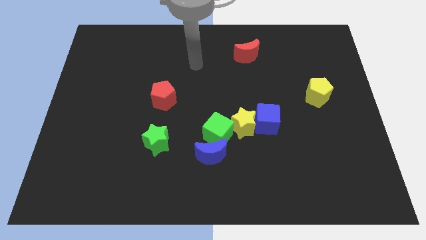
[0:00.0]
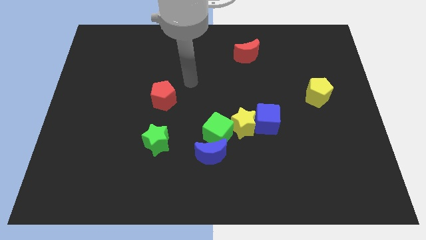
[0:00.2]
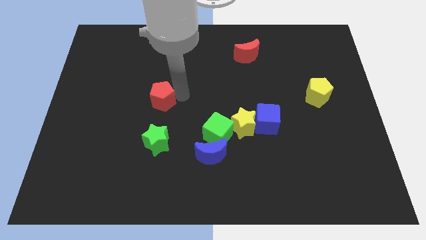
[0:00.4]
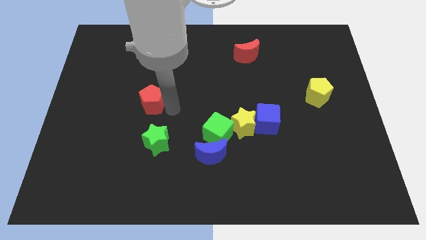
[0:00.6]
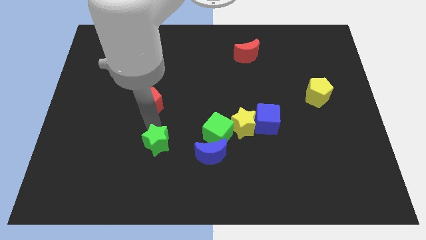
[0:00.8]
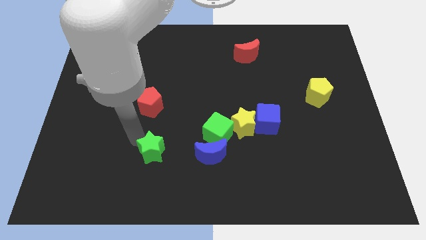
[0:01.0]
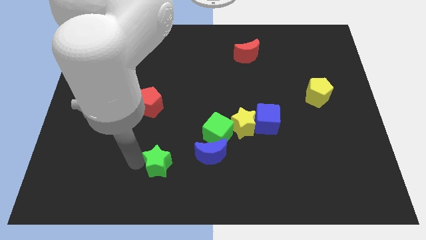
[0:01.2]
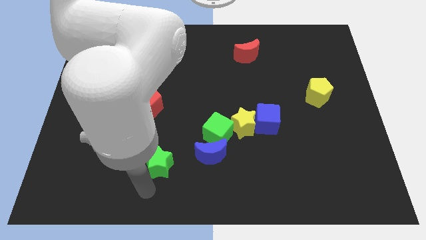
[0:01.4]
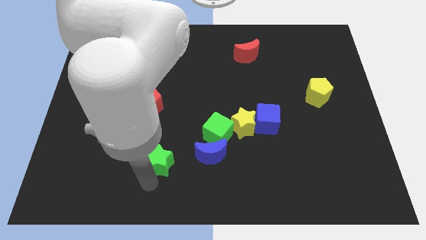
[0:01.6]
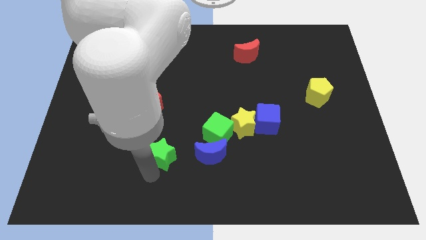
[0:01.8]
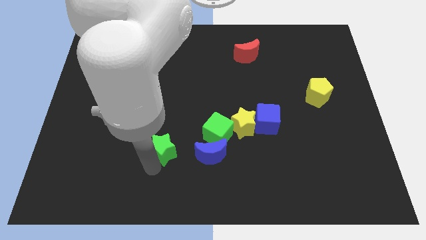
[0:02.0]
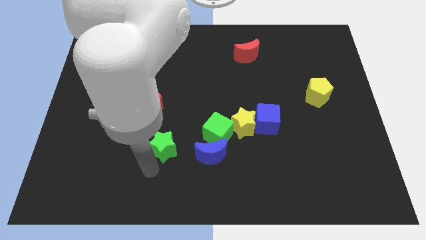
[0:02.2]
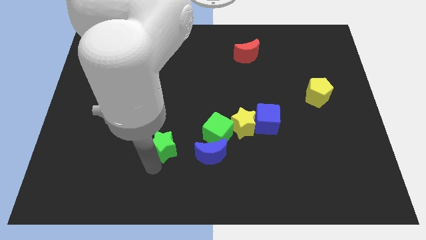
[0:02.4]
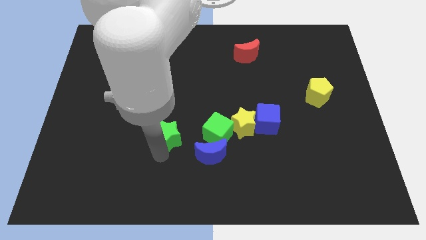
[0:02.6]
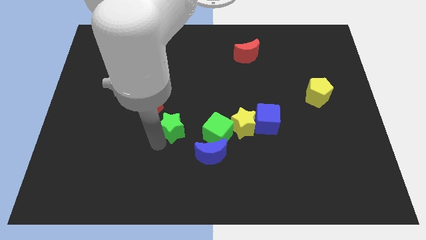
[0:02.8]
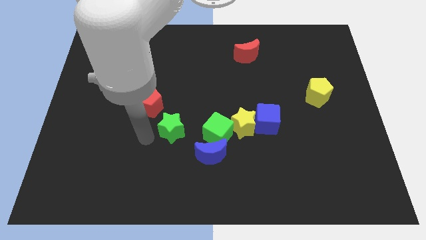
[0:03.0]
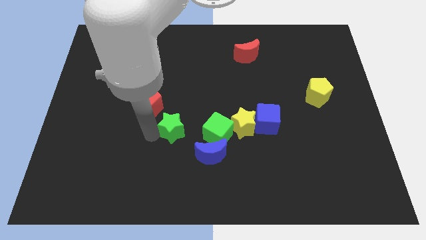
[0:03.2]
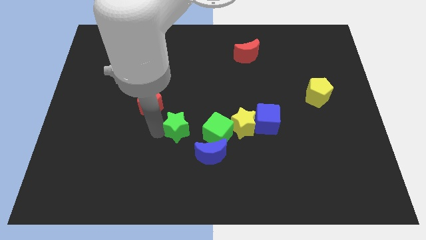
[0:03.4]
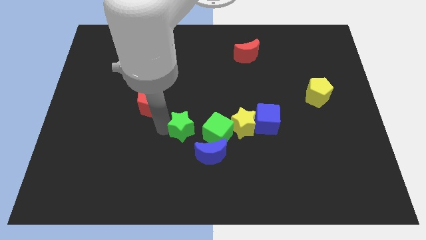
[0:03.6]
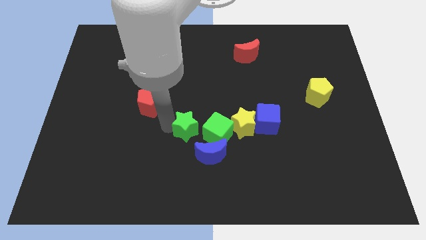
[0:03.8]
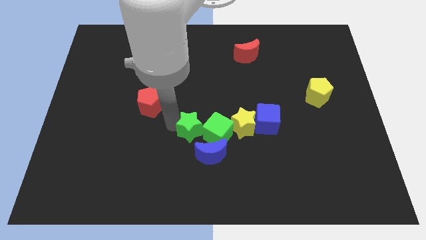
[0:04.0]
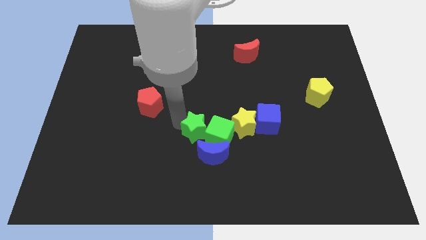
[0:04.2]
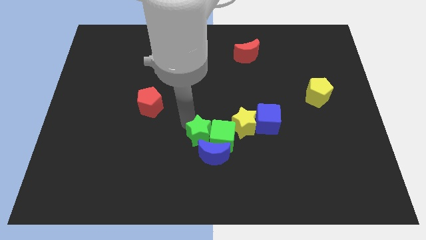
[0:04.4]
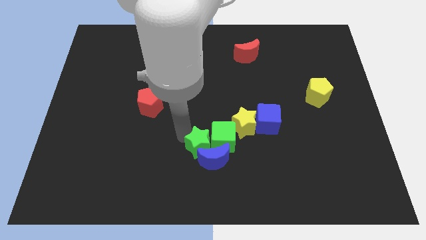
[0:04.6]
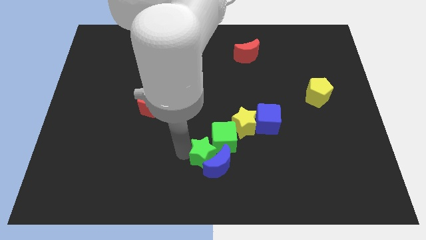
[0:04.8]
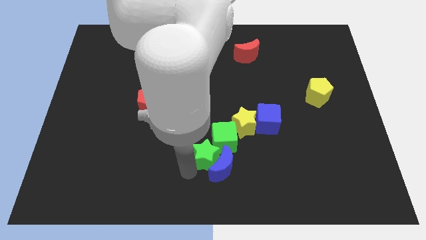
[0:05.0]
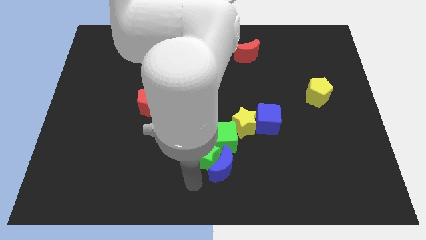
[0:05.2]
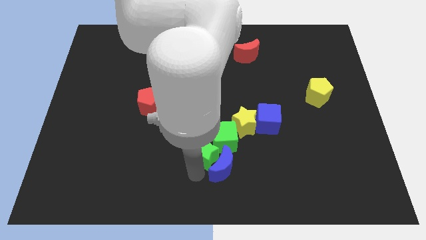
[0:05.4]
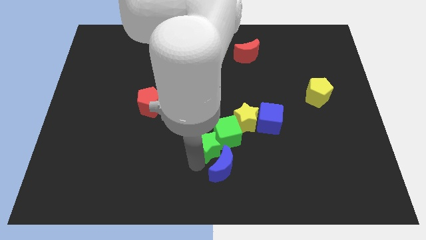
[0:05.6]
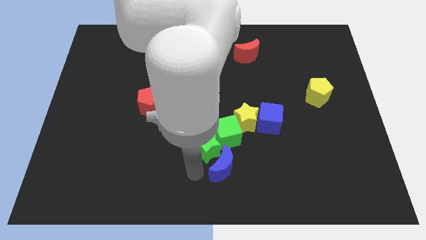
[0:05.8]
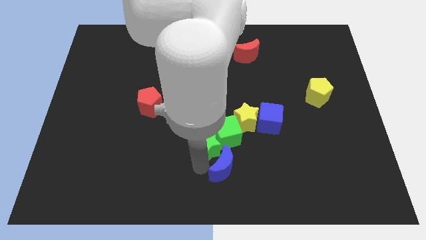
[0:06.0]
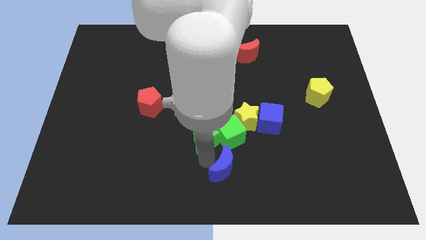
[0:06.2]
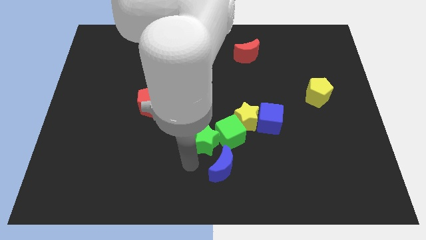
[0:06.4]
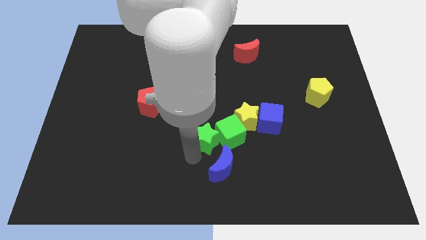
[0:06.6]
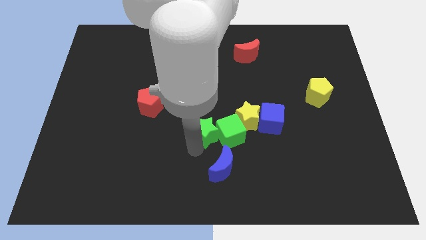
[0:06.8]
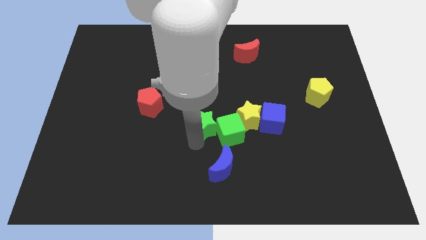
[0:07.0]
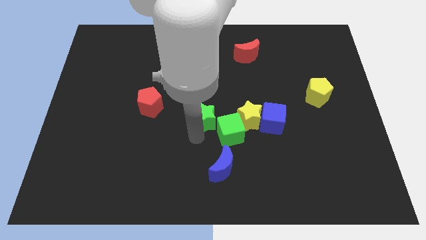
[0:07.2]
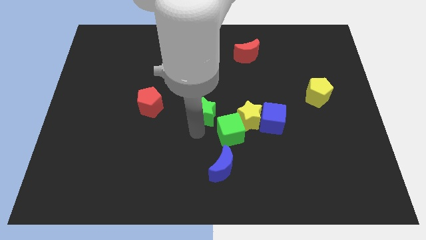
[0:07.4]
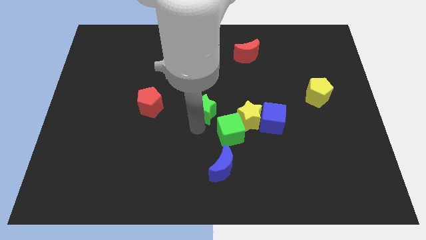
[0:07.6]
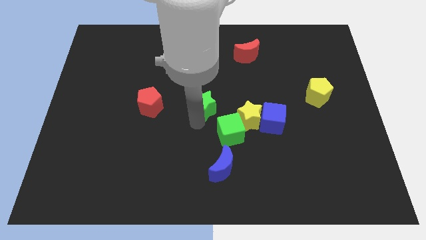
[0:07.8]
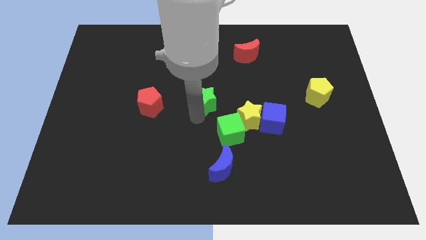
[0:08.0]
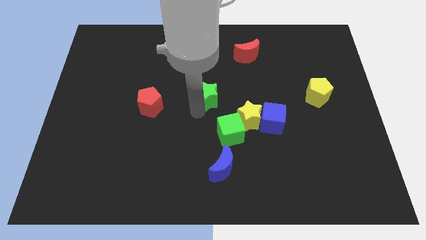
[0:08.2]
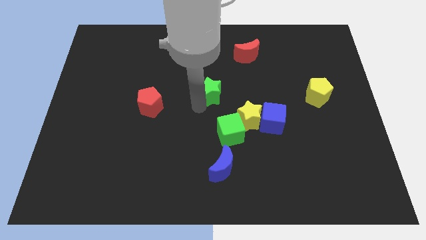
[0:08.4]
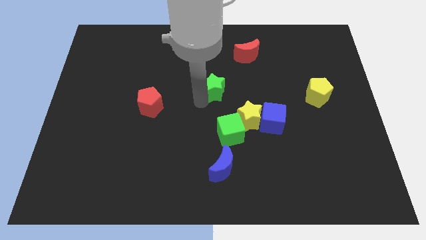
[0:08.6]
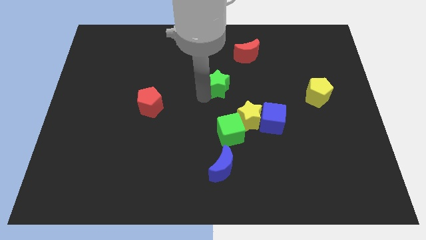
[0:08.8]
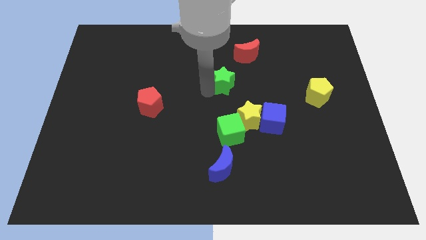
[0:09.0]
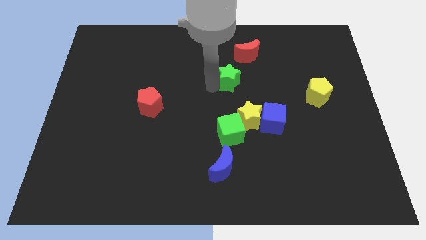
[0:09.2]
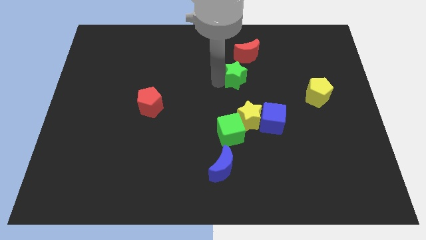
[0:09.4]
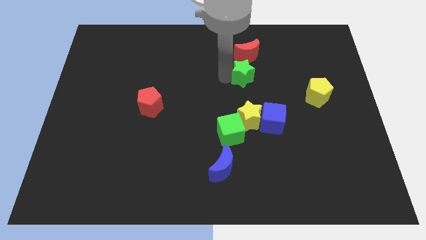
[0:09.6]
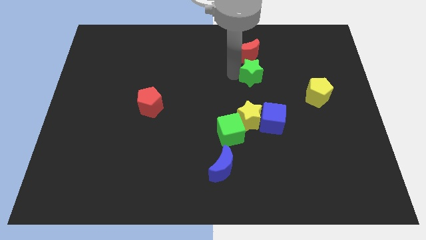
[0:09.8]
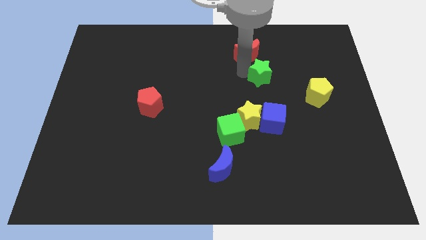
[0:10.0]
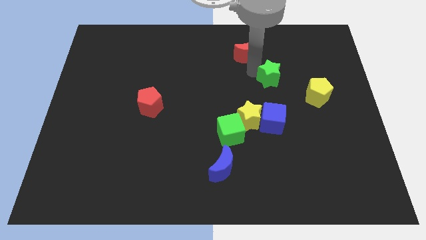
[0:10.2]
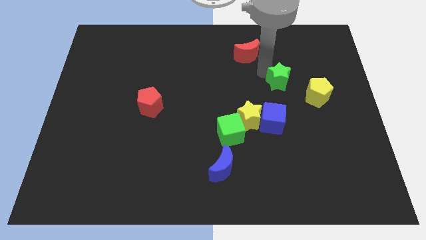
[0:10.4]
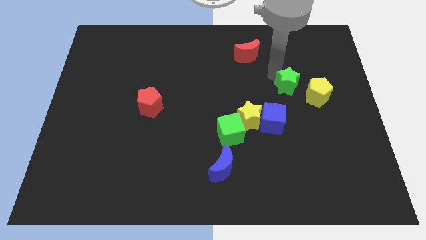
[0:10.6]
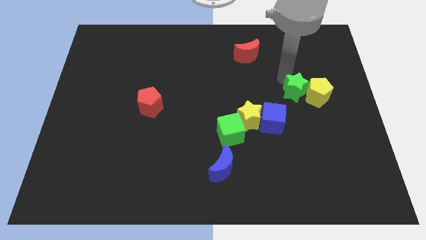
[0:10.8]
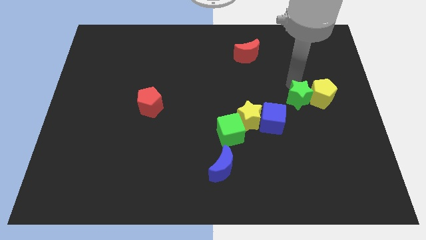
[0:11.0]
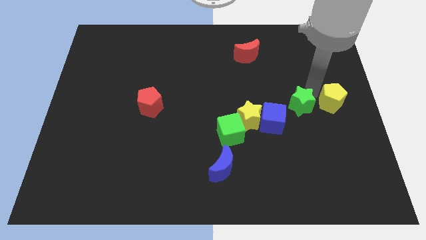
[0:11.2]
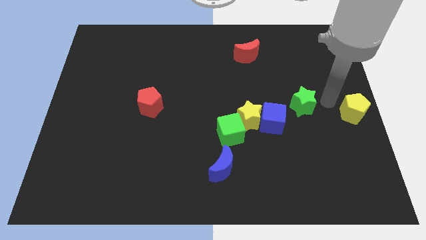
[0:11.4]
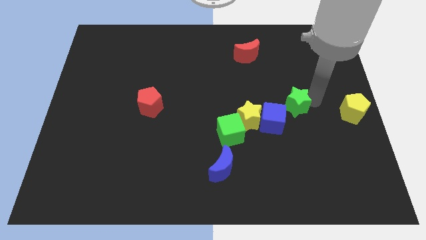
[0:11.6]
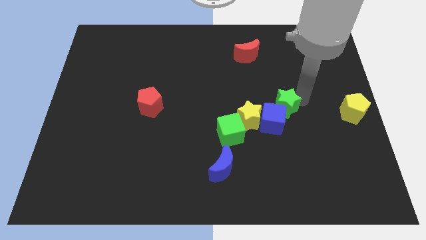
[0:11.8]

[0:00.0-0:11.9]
move the green star towards the blue cube
